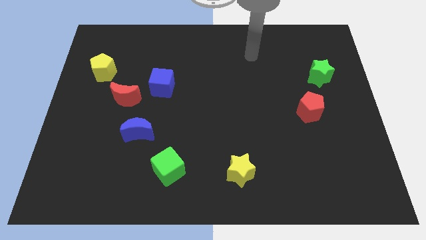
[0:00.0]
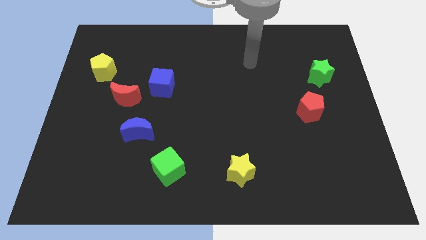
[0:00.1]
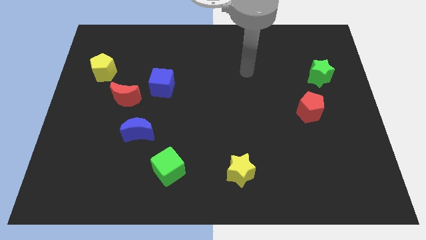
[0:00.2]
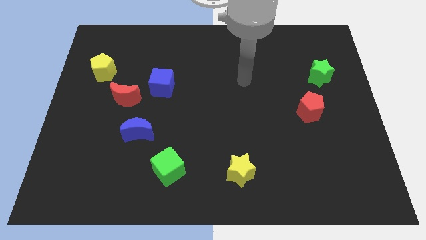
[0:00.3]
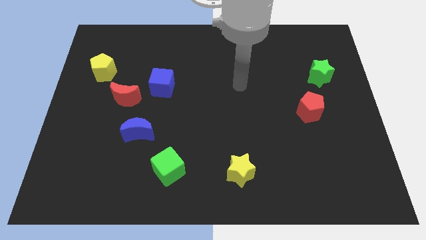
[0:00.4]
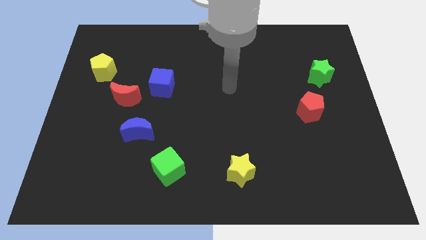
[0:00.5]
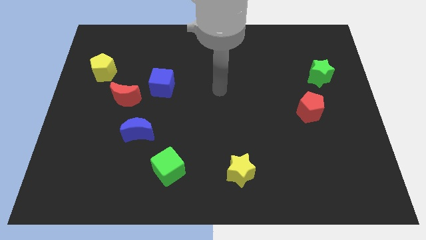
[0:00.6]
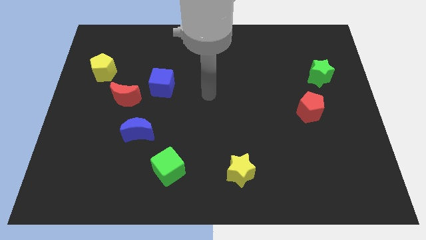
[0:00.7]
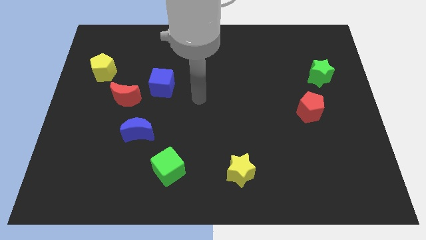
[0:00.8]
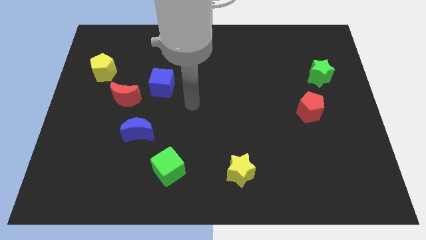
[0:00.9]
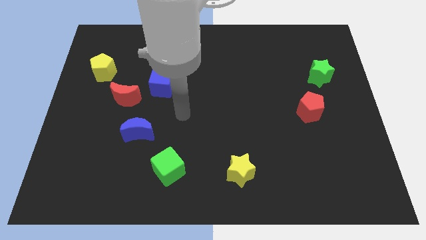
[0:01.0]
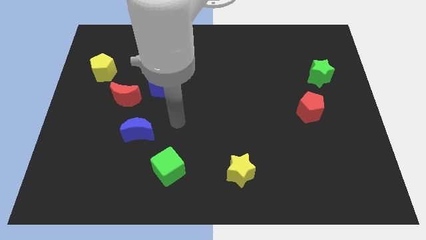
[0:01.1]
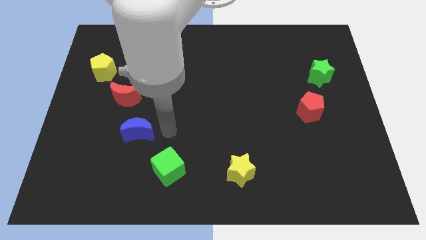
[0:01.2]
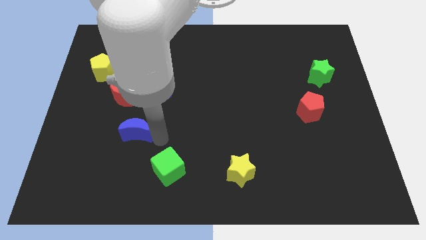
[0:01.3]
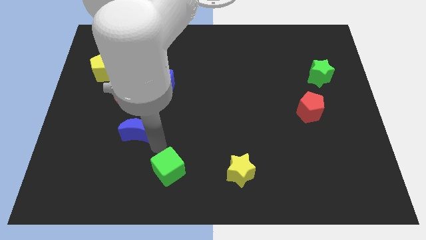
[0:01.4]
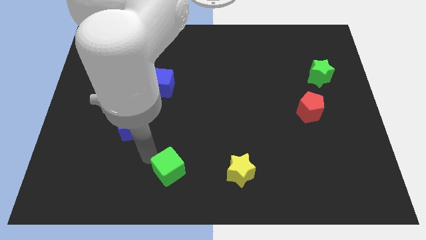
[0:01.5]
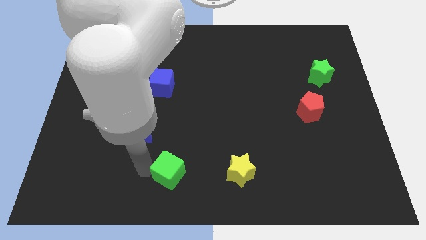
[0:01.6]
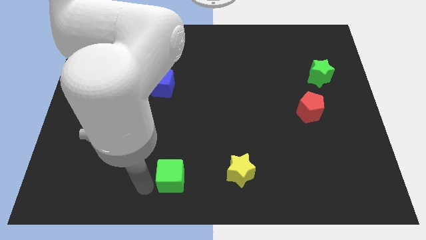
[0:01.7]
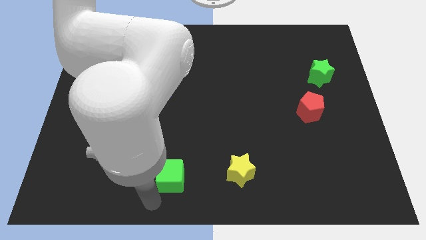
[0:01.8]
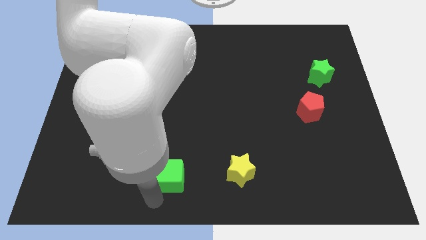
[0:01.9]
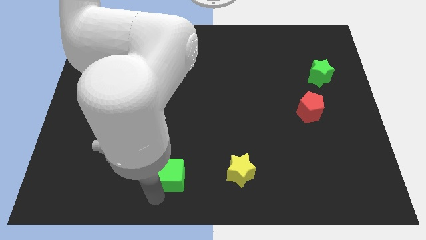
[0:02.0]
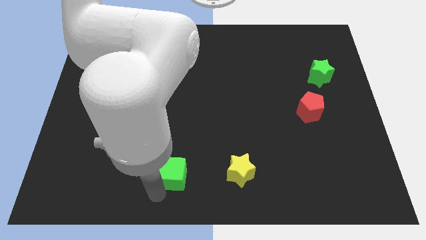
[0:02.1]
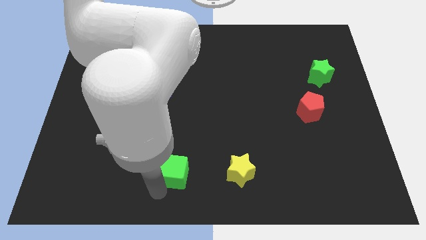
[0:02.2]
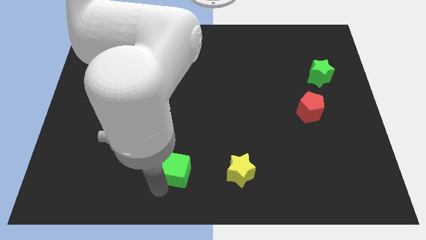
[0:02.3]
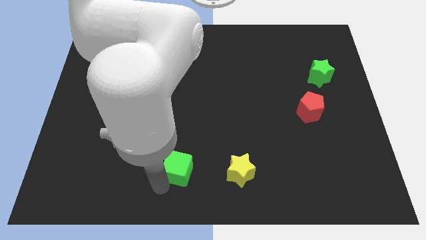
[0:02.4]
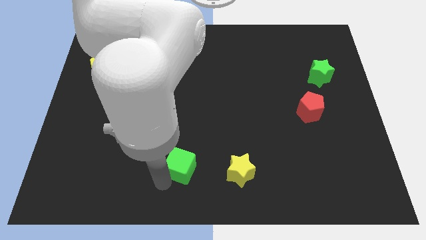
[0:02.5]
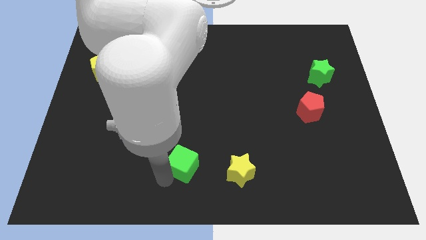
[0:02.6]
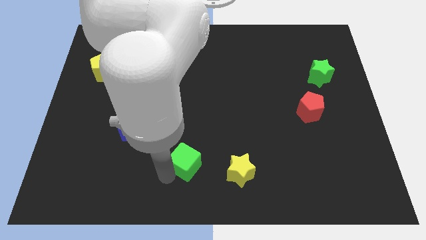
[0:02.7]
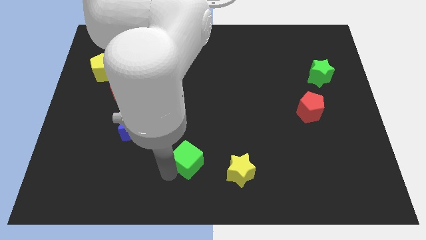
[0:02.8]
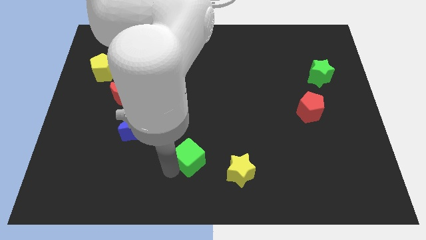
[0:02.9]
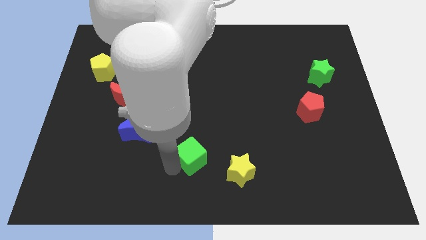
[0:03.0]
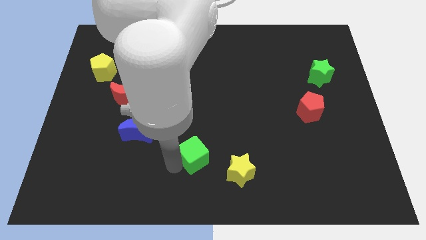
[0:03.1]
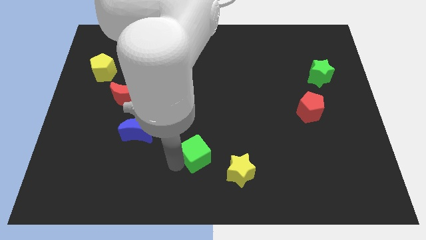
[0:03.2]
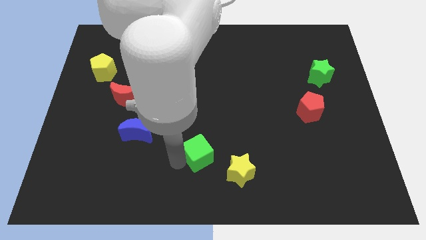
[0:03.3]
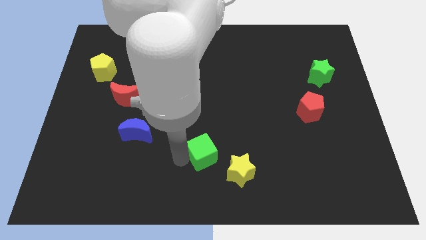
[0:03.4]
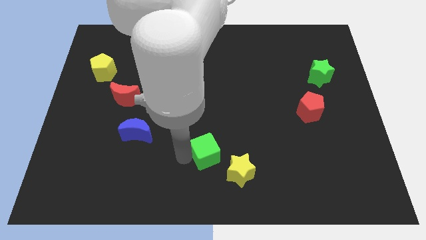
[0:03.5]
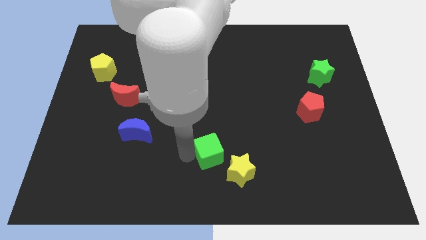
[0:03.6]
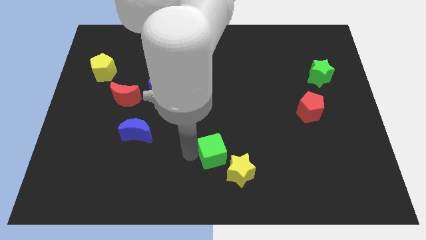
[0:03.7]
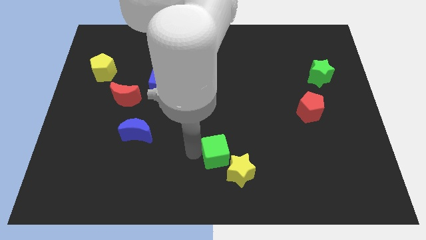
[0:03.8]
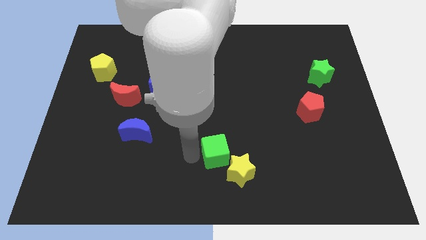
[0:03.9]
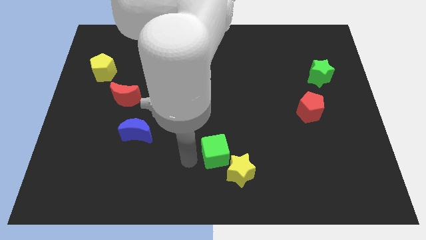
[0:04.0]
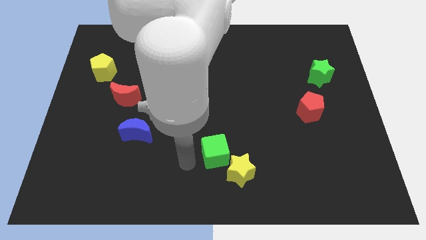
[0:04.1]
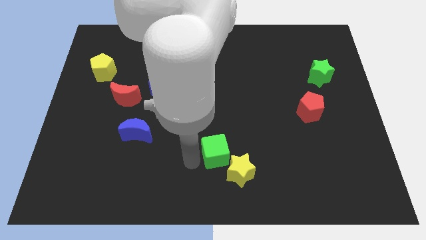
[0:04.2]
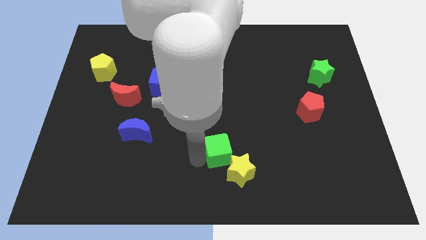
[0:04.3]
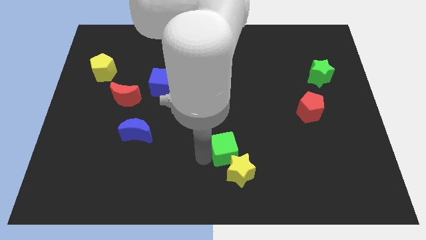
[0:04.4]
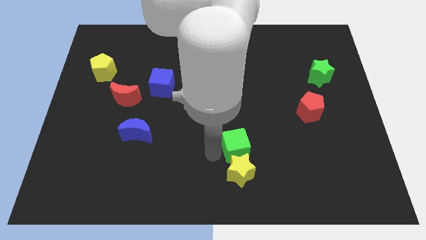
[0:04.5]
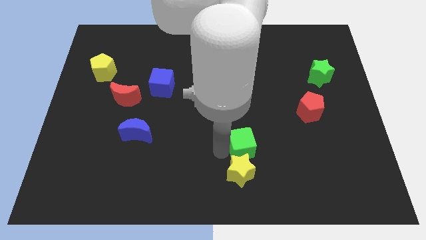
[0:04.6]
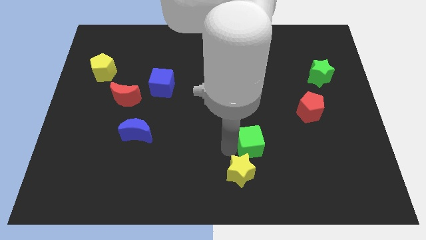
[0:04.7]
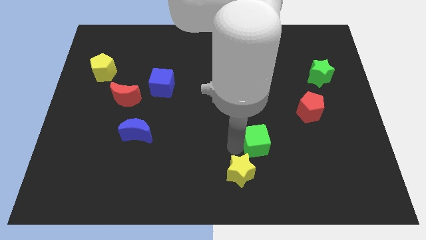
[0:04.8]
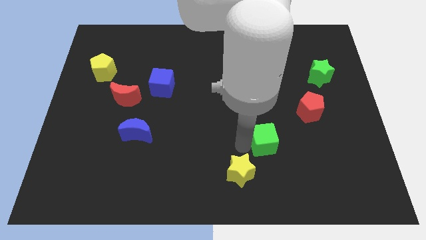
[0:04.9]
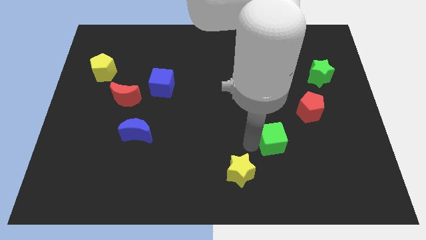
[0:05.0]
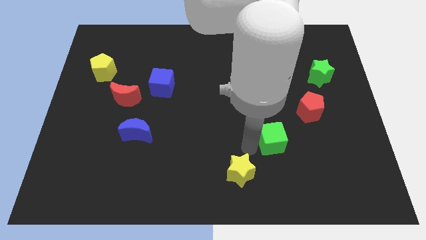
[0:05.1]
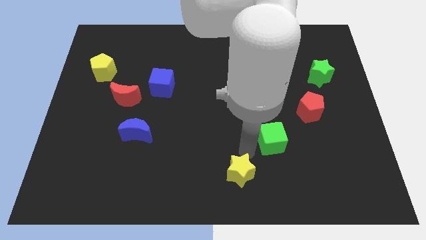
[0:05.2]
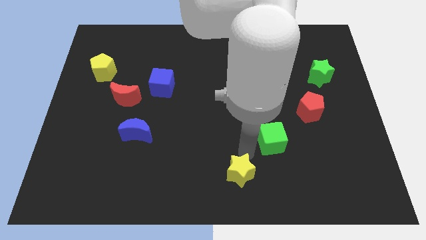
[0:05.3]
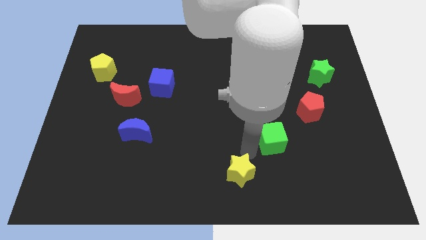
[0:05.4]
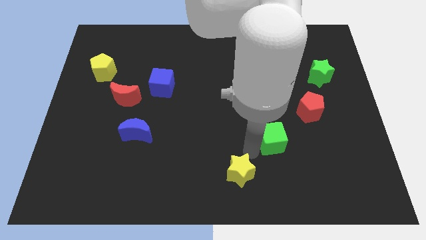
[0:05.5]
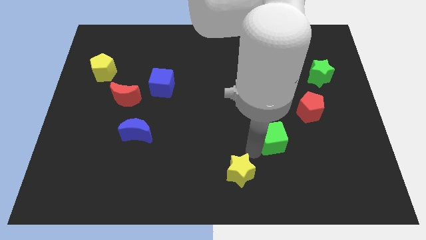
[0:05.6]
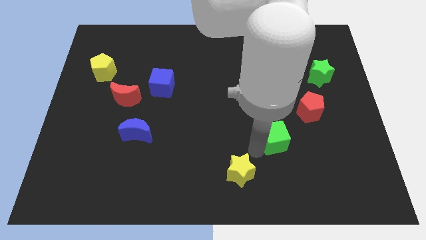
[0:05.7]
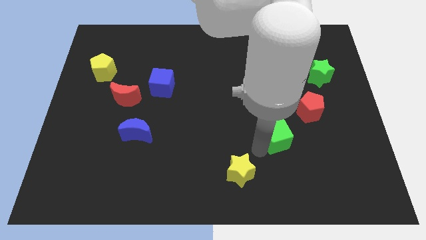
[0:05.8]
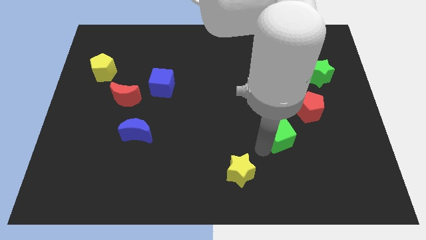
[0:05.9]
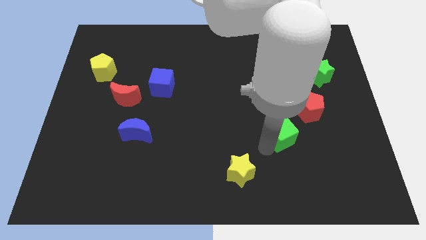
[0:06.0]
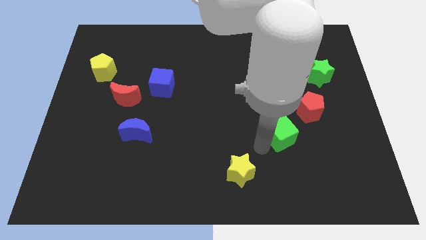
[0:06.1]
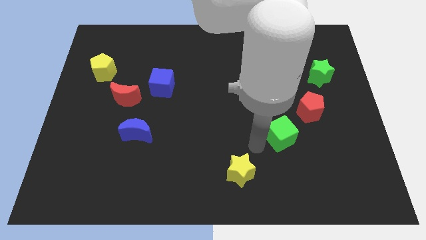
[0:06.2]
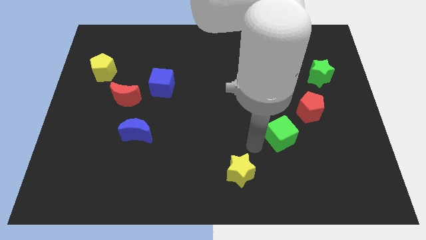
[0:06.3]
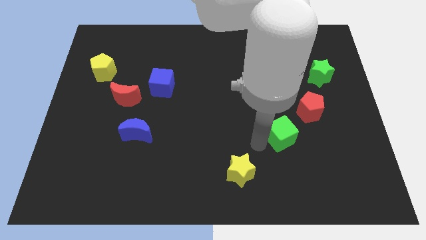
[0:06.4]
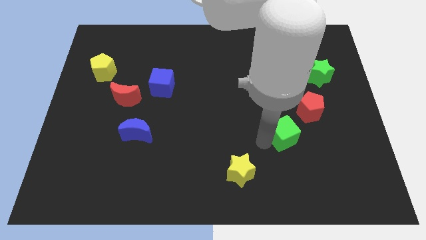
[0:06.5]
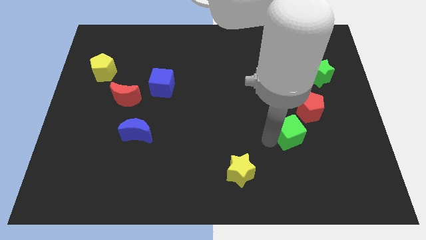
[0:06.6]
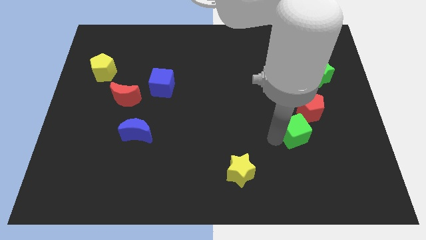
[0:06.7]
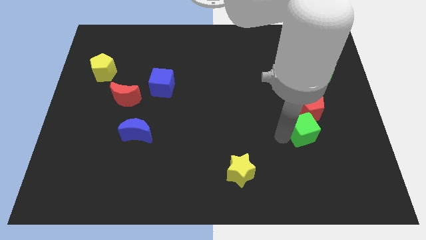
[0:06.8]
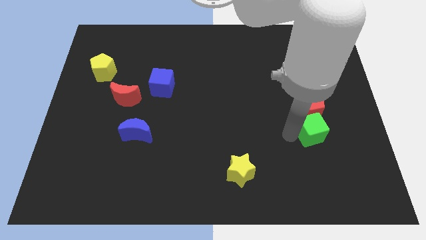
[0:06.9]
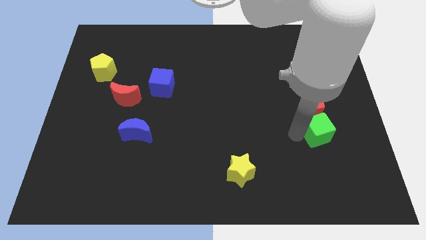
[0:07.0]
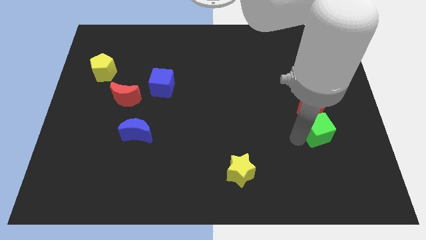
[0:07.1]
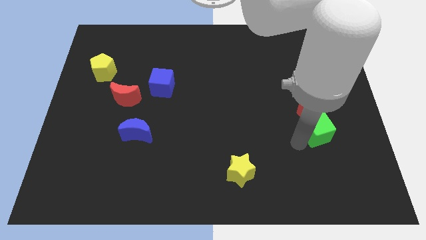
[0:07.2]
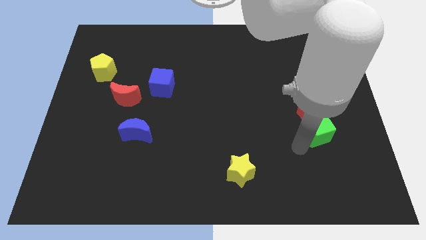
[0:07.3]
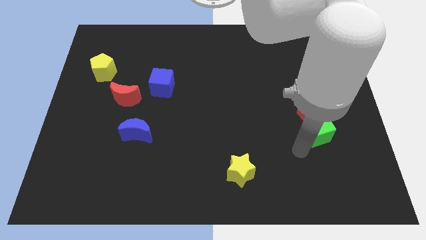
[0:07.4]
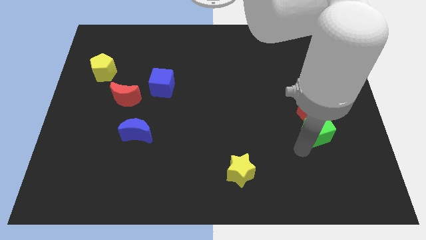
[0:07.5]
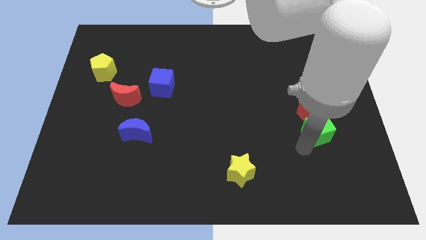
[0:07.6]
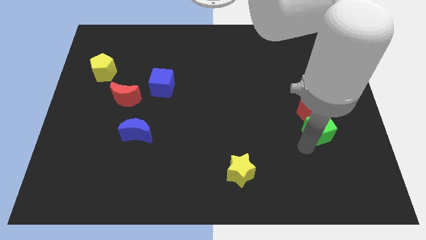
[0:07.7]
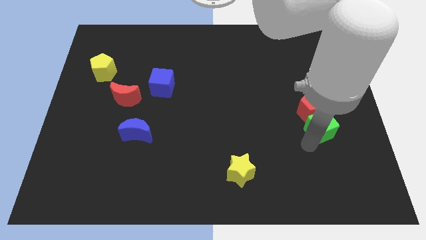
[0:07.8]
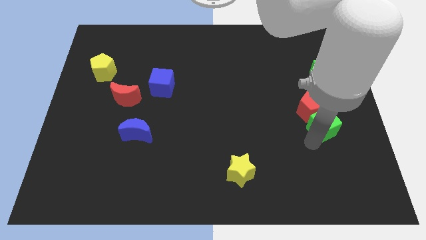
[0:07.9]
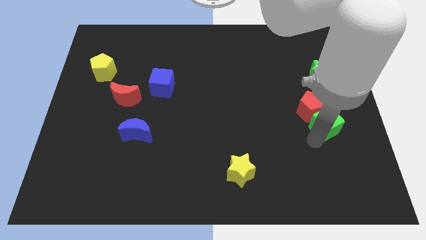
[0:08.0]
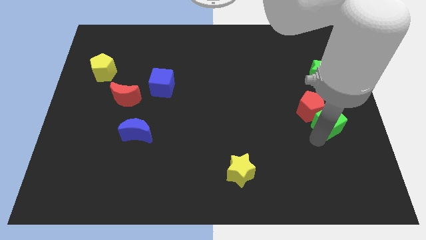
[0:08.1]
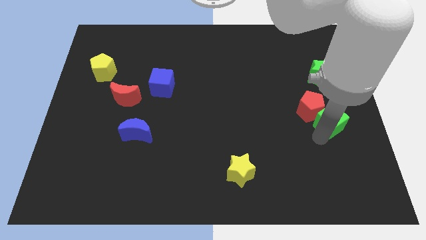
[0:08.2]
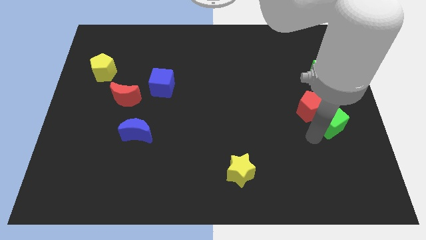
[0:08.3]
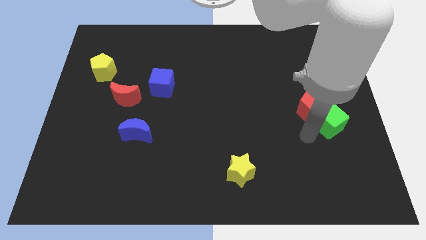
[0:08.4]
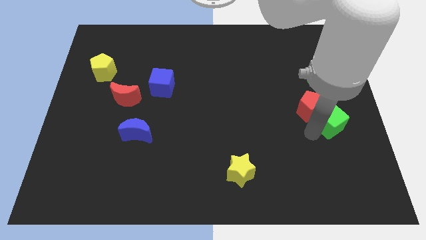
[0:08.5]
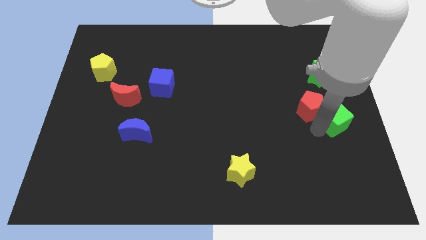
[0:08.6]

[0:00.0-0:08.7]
slide the green cube to the center right
